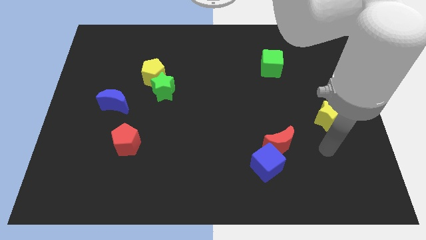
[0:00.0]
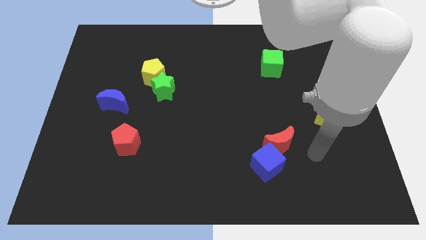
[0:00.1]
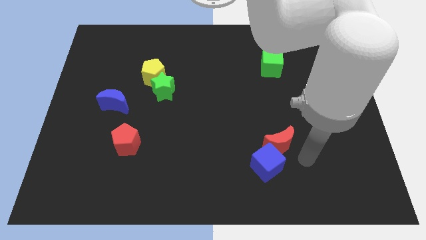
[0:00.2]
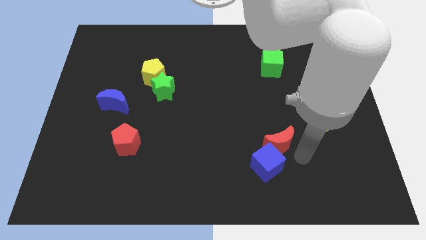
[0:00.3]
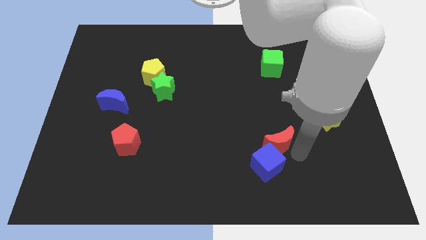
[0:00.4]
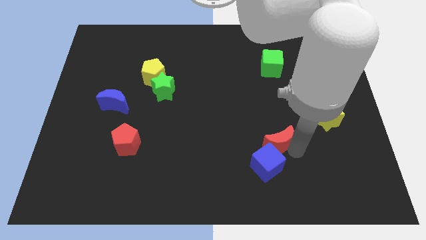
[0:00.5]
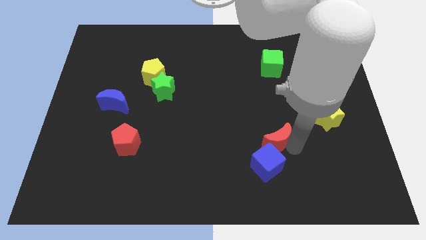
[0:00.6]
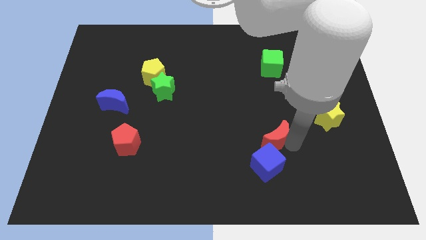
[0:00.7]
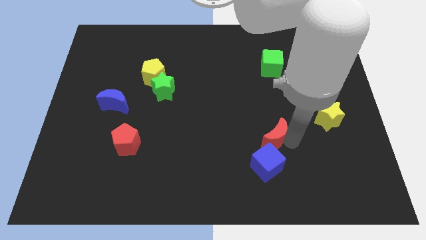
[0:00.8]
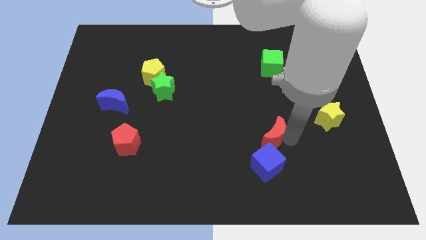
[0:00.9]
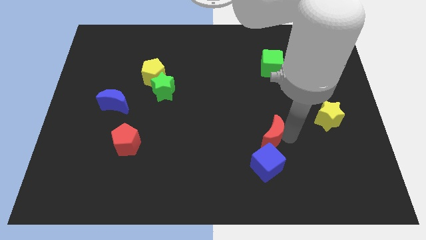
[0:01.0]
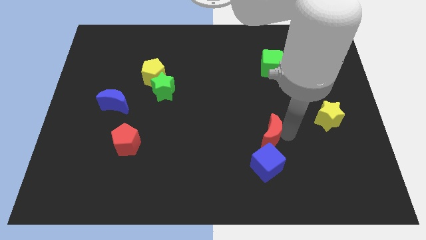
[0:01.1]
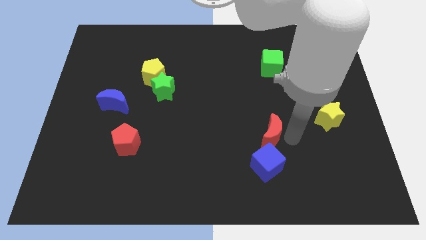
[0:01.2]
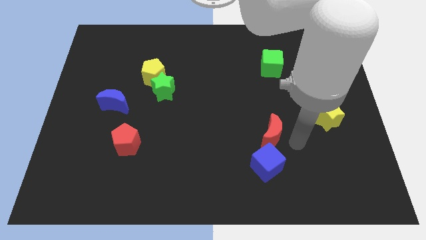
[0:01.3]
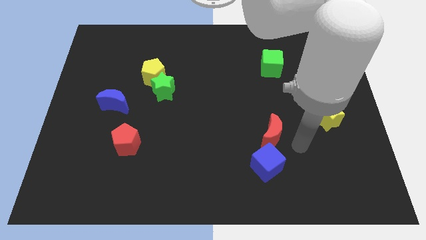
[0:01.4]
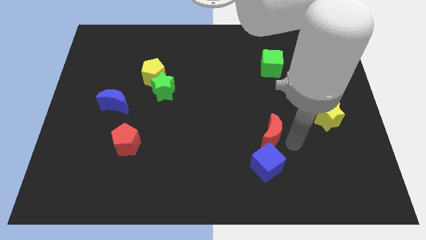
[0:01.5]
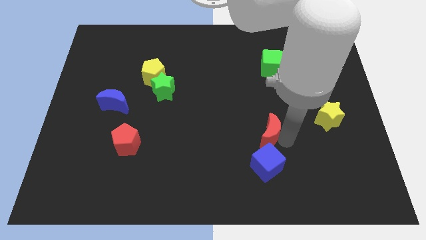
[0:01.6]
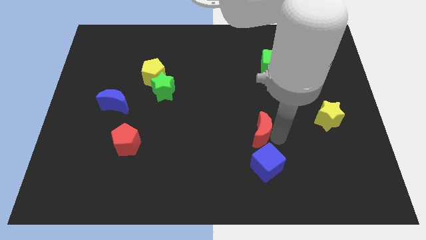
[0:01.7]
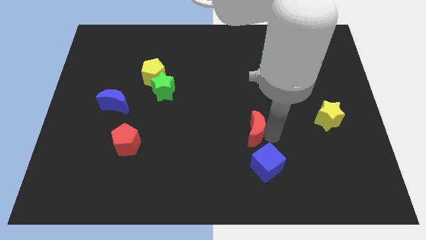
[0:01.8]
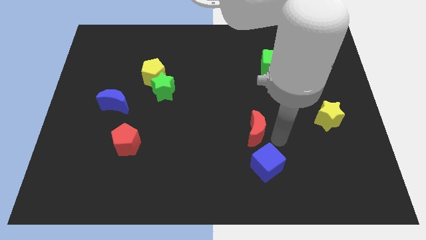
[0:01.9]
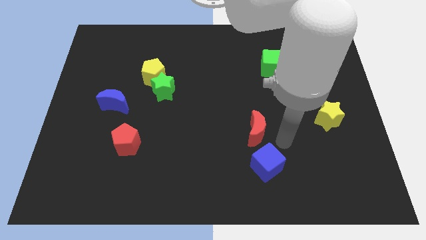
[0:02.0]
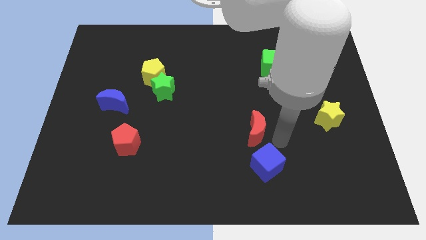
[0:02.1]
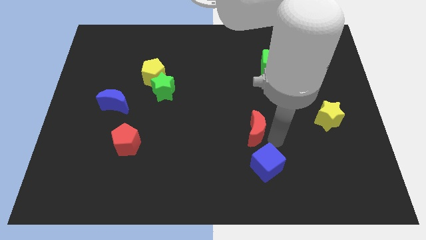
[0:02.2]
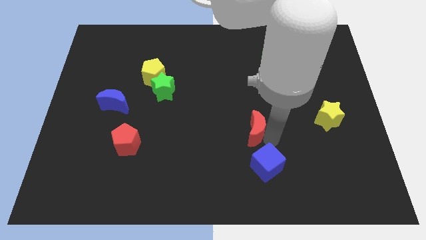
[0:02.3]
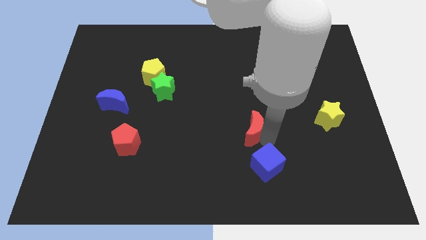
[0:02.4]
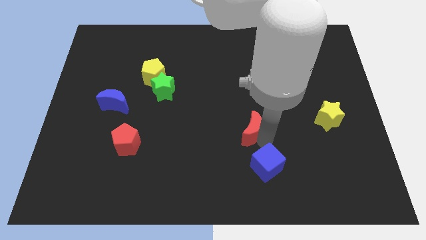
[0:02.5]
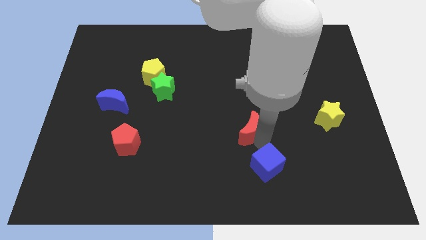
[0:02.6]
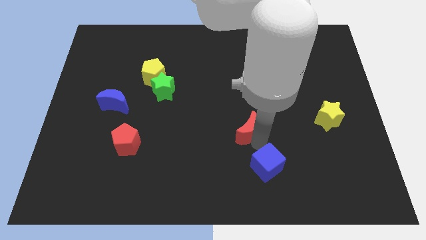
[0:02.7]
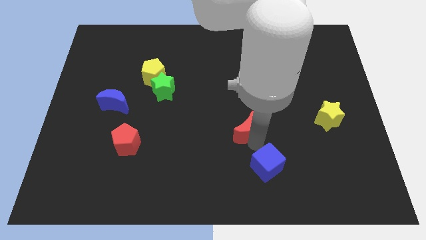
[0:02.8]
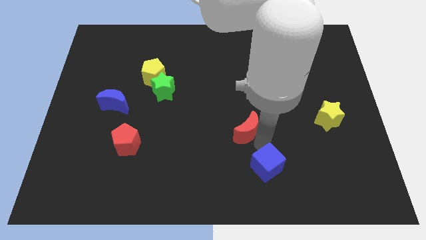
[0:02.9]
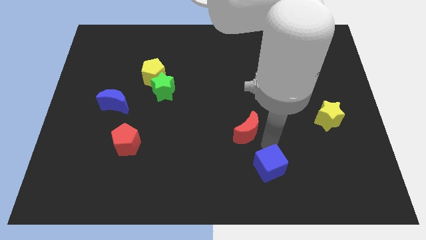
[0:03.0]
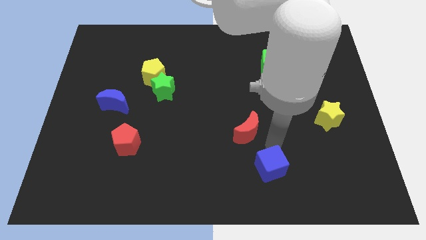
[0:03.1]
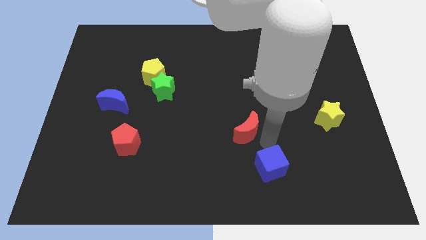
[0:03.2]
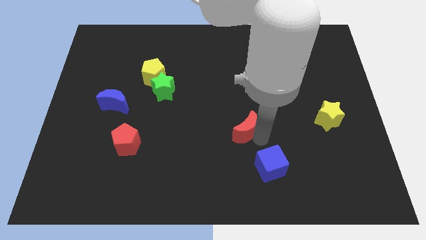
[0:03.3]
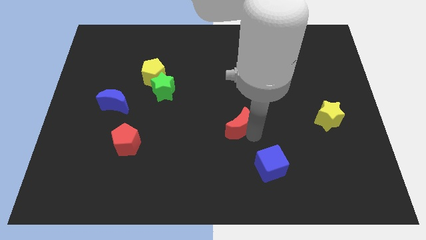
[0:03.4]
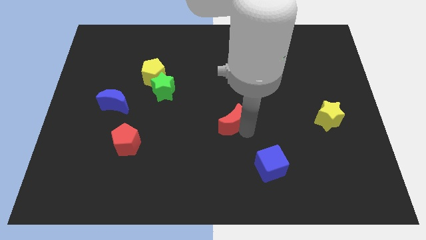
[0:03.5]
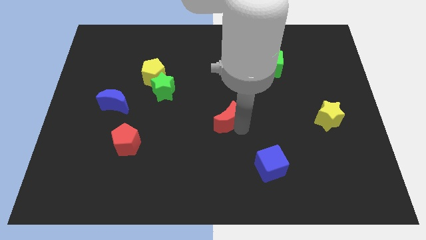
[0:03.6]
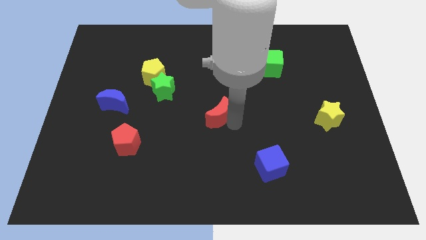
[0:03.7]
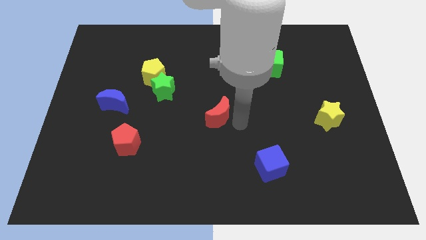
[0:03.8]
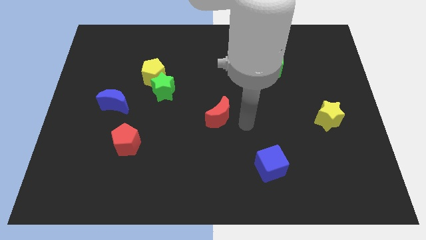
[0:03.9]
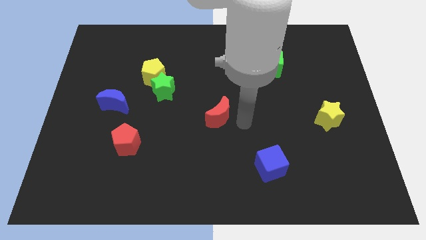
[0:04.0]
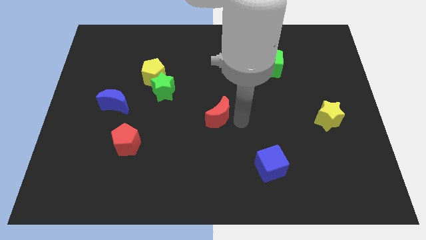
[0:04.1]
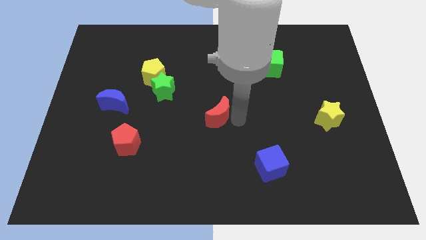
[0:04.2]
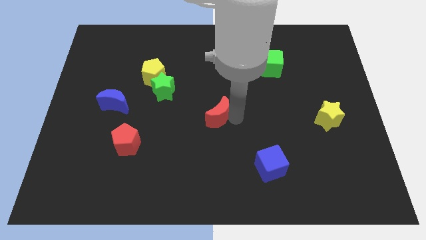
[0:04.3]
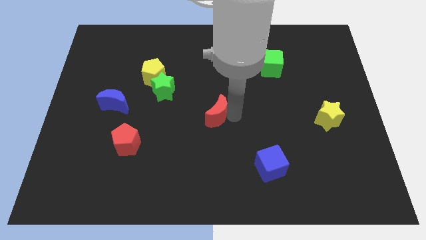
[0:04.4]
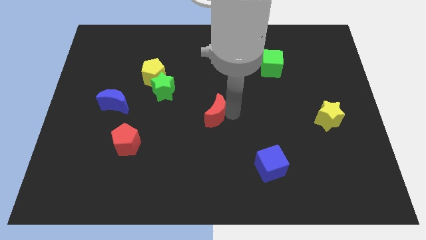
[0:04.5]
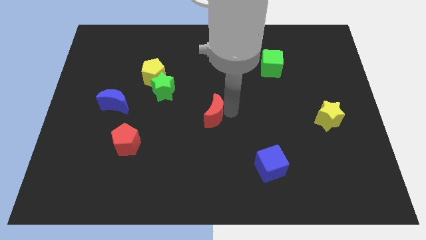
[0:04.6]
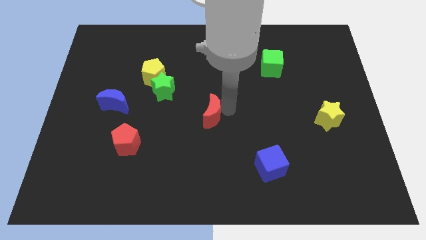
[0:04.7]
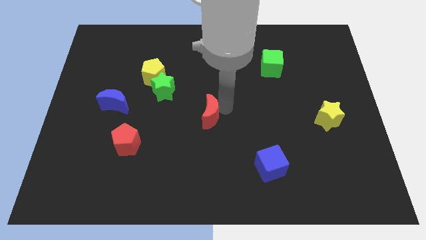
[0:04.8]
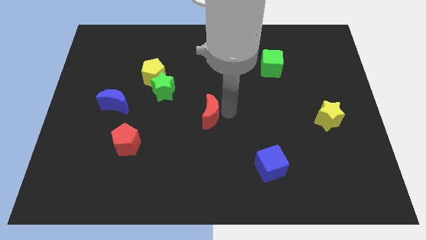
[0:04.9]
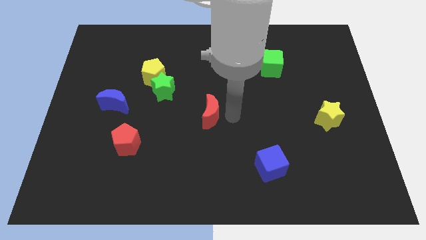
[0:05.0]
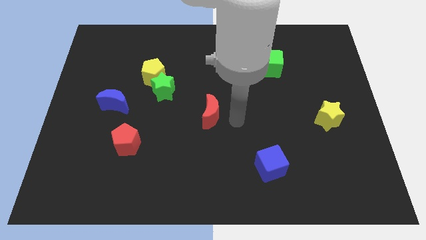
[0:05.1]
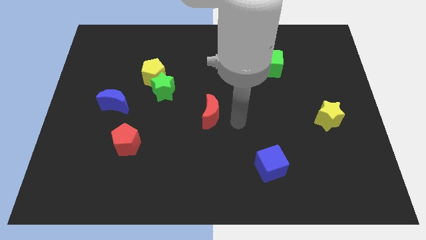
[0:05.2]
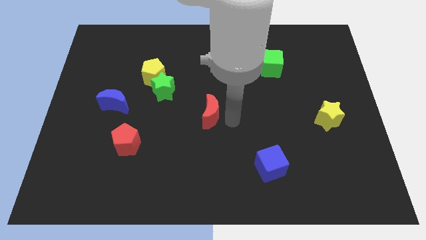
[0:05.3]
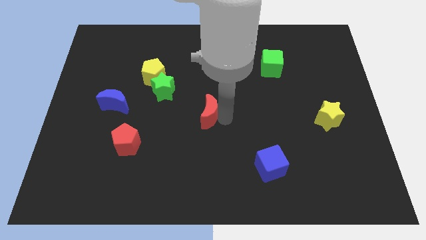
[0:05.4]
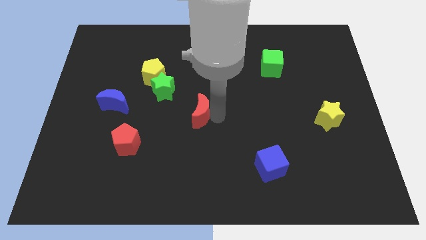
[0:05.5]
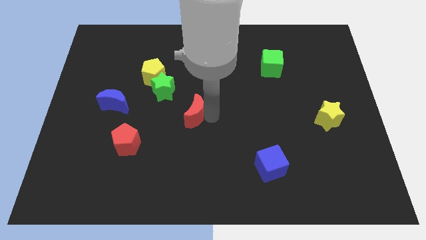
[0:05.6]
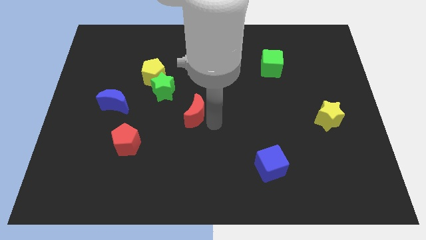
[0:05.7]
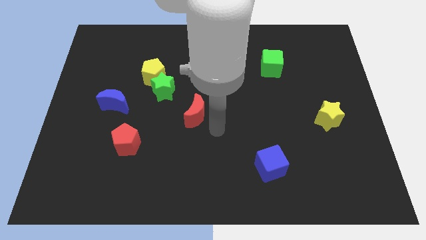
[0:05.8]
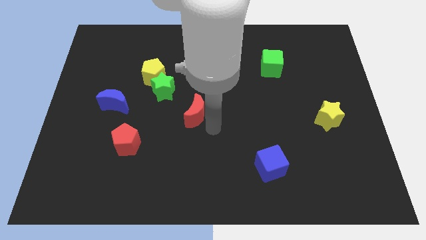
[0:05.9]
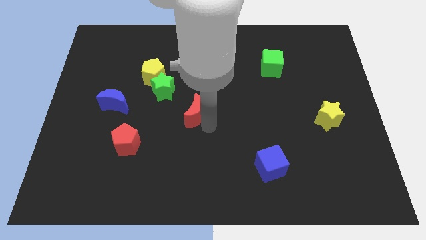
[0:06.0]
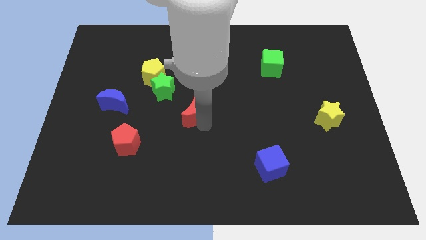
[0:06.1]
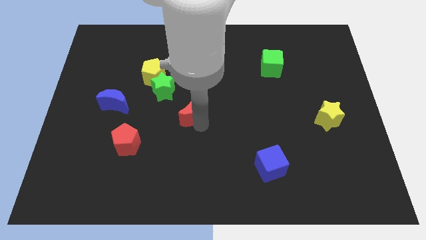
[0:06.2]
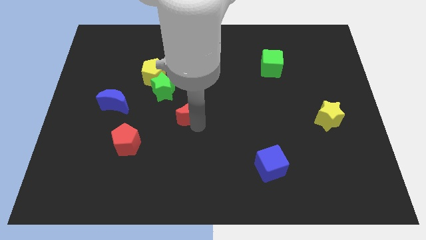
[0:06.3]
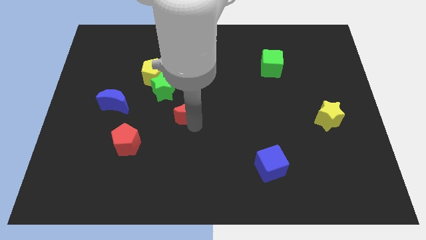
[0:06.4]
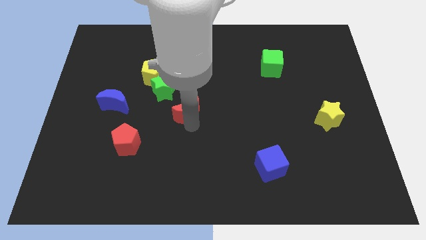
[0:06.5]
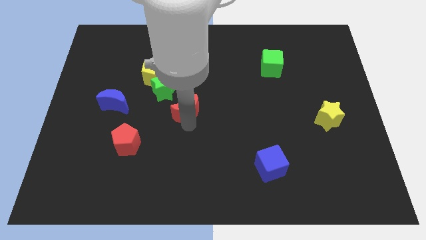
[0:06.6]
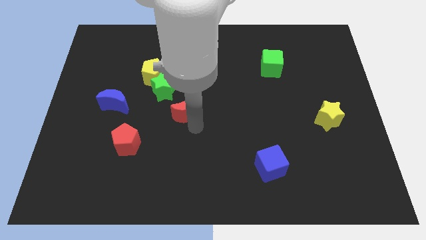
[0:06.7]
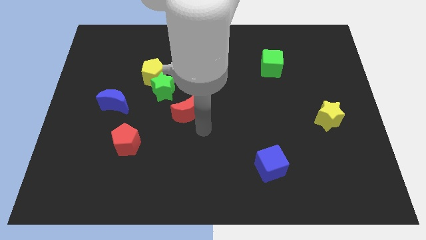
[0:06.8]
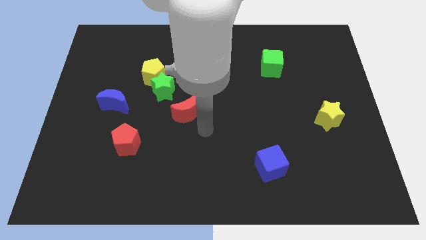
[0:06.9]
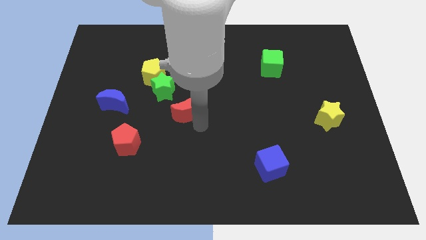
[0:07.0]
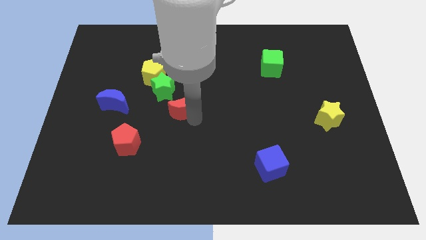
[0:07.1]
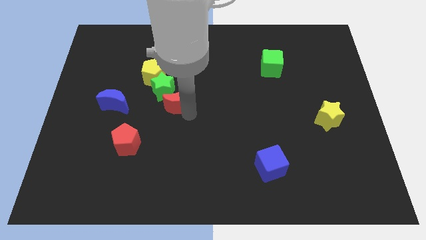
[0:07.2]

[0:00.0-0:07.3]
put the red moon next to the green star

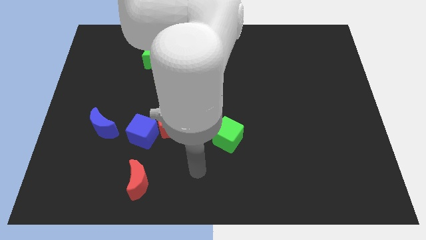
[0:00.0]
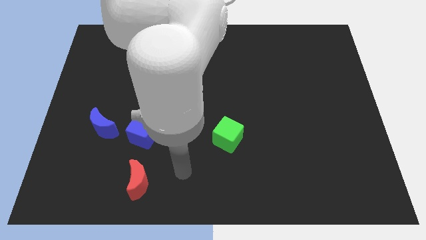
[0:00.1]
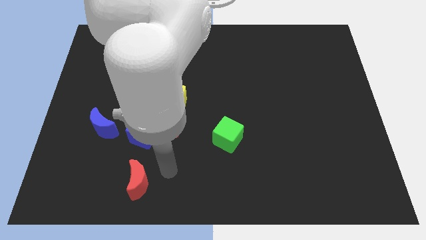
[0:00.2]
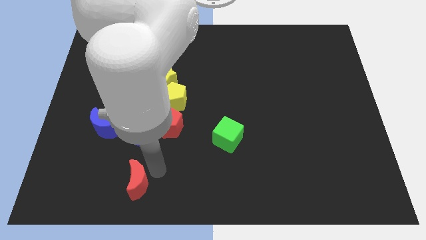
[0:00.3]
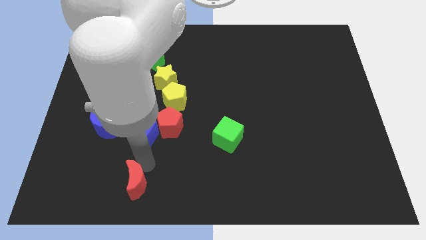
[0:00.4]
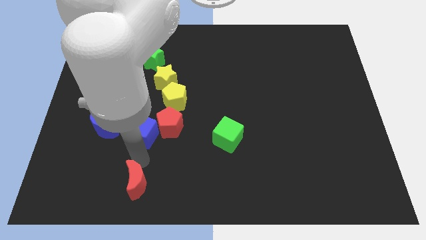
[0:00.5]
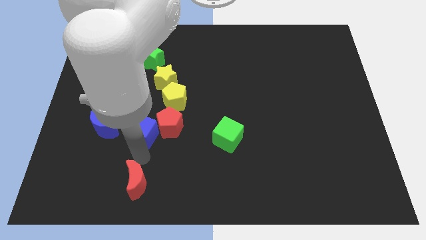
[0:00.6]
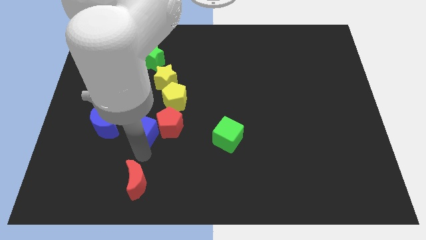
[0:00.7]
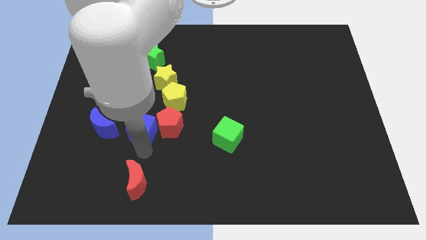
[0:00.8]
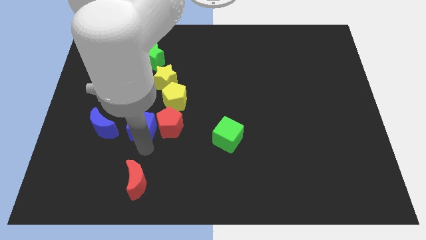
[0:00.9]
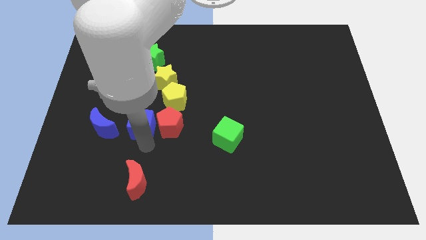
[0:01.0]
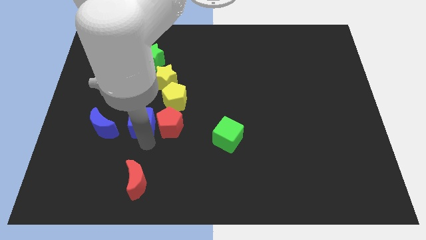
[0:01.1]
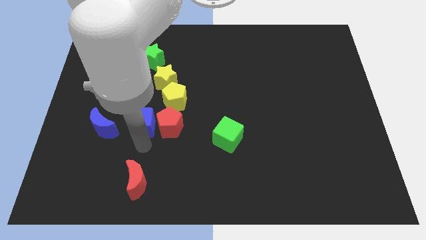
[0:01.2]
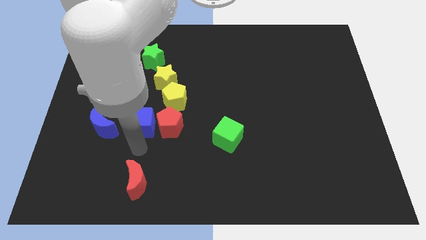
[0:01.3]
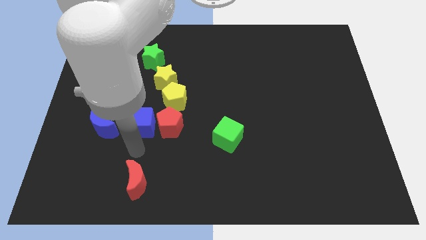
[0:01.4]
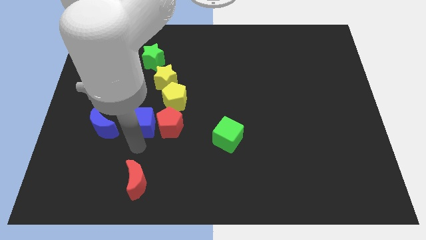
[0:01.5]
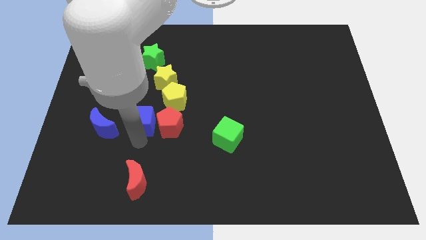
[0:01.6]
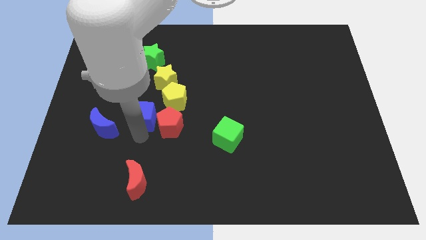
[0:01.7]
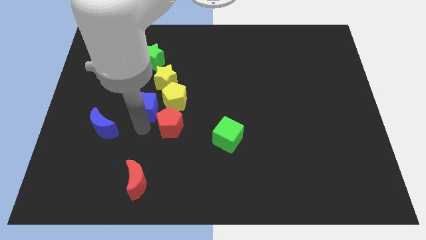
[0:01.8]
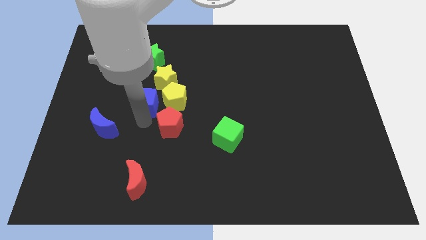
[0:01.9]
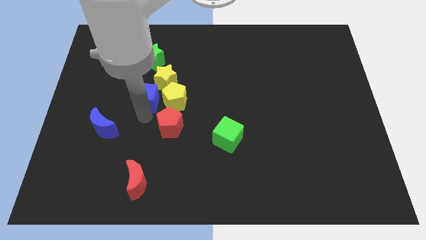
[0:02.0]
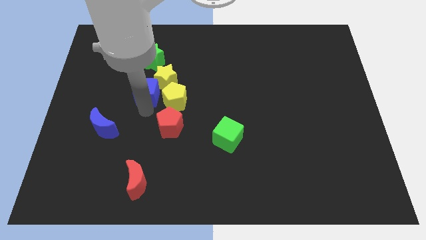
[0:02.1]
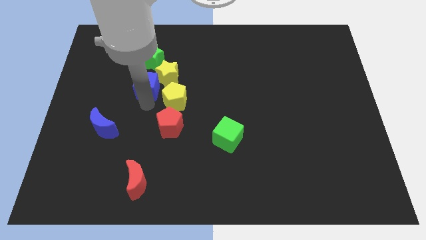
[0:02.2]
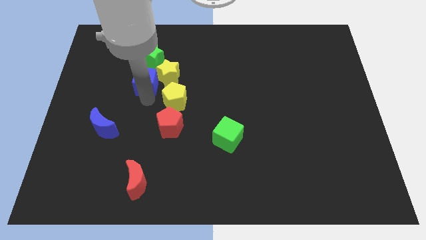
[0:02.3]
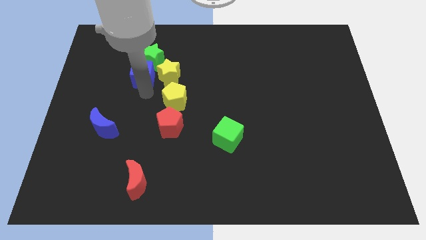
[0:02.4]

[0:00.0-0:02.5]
push the blue cube close to the green star
